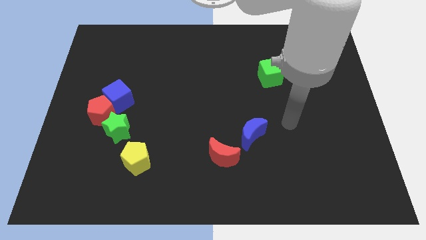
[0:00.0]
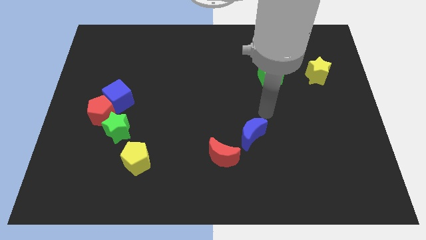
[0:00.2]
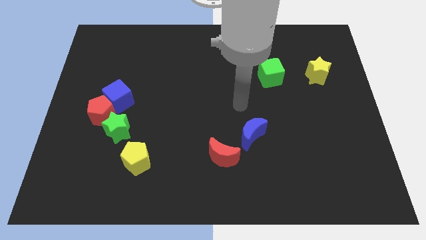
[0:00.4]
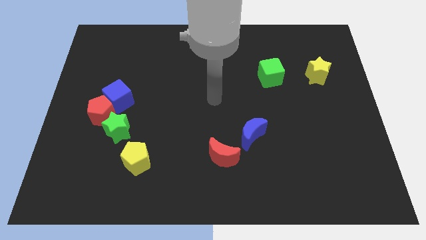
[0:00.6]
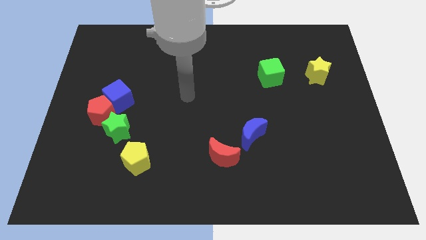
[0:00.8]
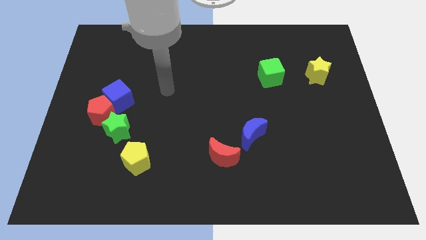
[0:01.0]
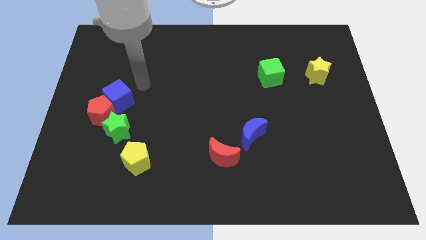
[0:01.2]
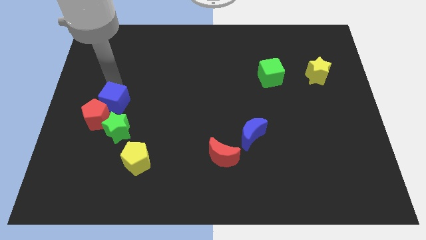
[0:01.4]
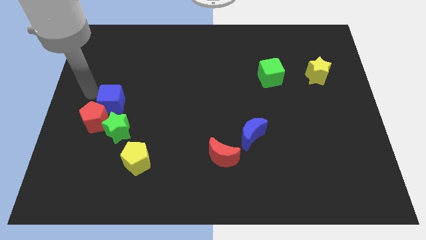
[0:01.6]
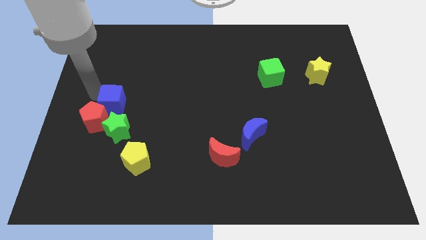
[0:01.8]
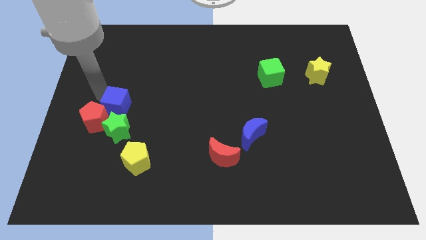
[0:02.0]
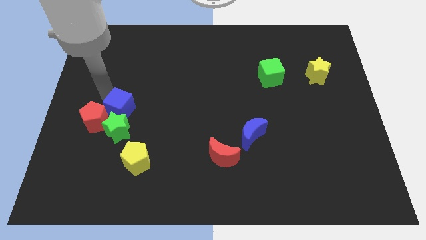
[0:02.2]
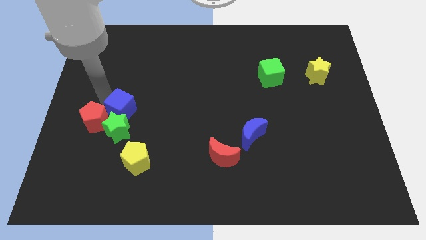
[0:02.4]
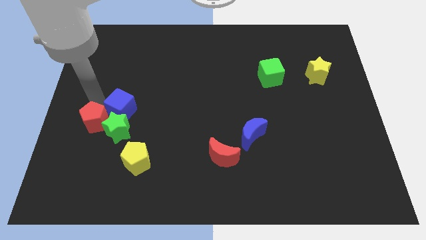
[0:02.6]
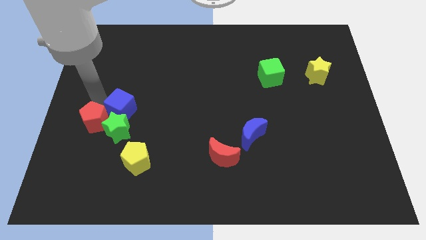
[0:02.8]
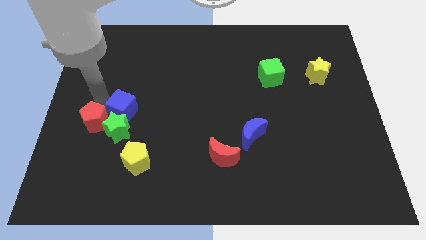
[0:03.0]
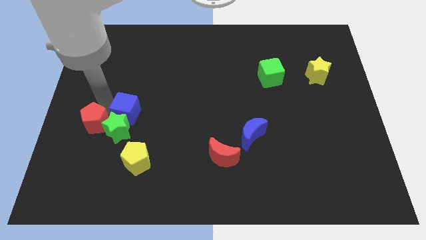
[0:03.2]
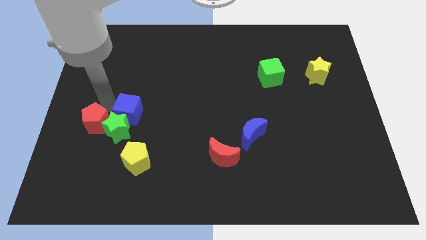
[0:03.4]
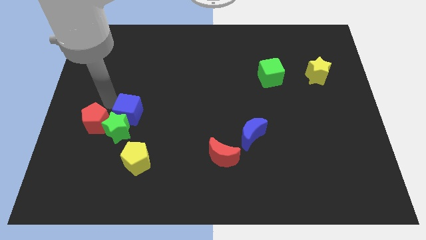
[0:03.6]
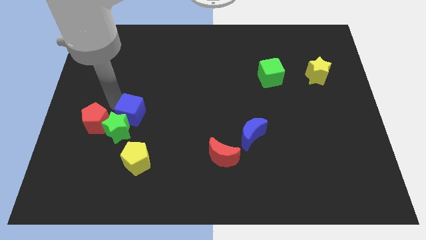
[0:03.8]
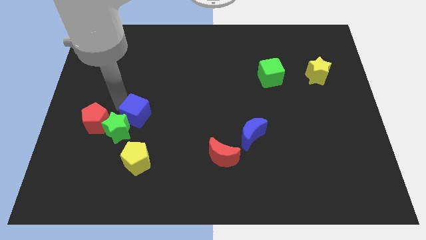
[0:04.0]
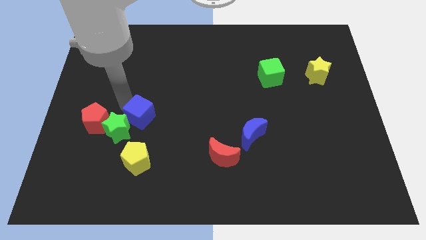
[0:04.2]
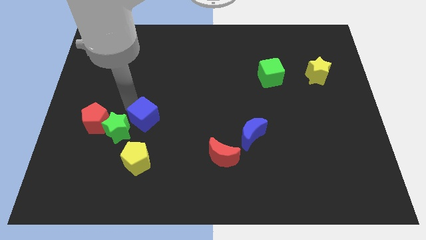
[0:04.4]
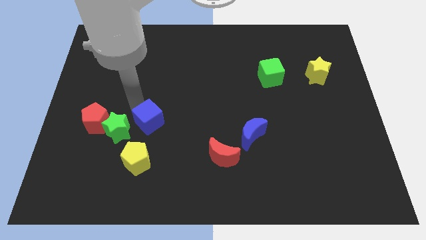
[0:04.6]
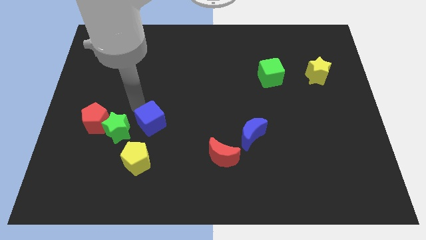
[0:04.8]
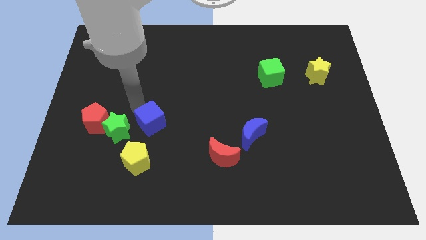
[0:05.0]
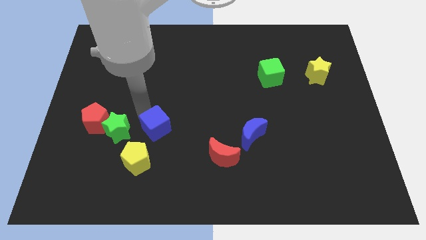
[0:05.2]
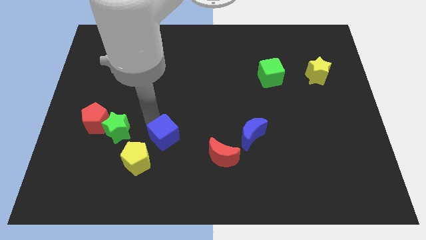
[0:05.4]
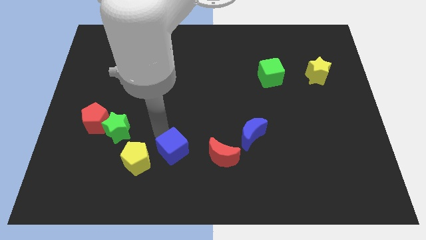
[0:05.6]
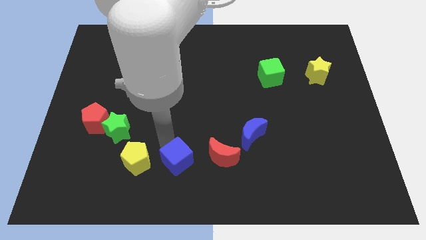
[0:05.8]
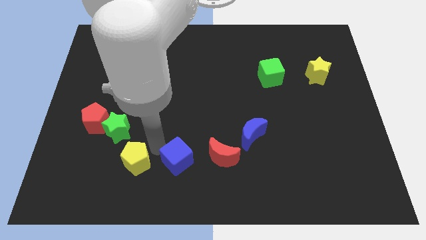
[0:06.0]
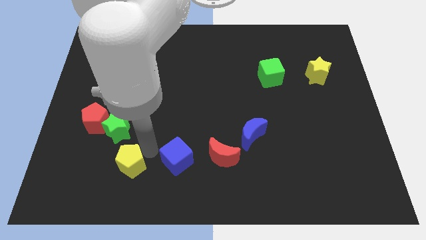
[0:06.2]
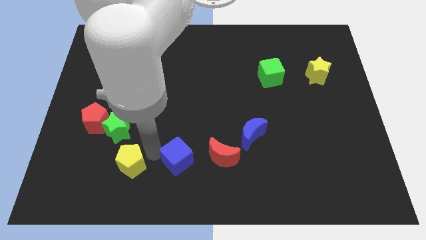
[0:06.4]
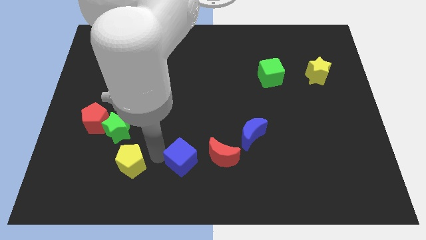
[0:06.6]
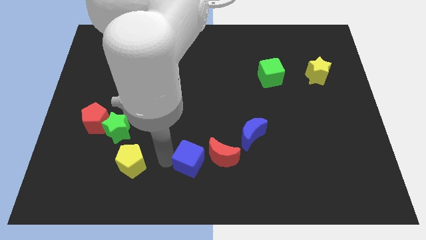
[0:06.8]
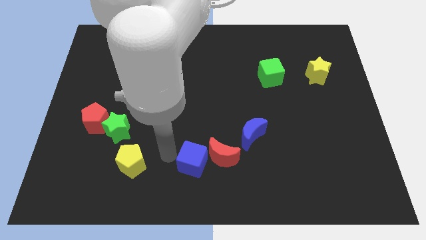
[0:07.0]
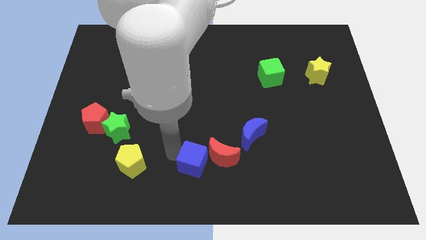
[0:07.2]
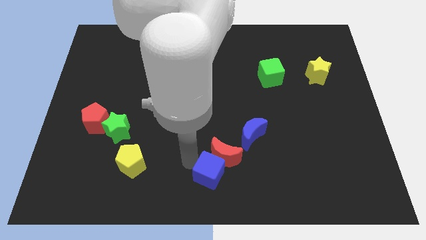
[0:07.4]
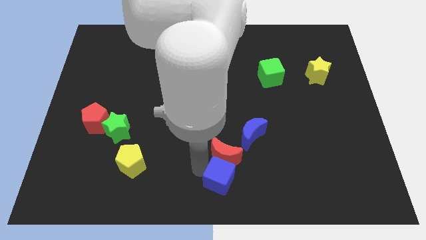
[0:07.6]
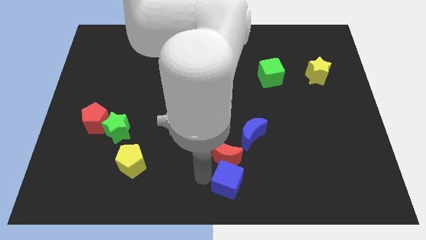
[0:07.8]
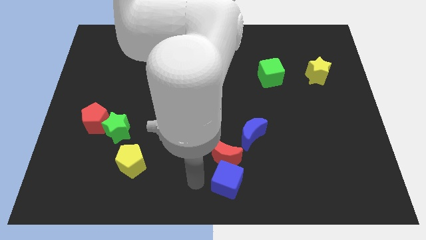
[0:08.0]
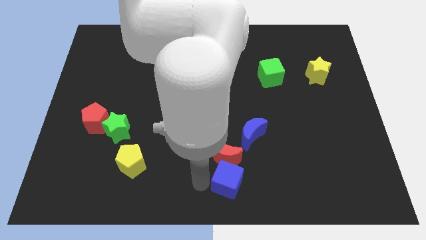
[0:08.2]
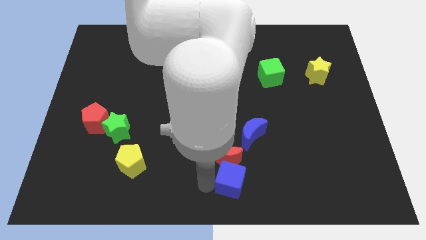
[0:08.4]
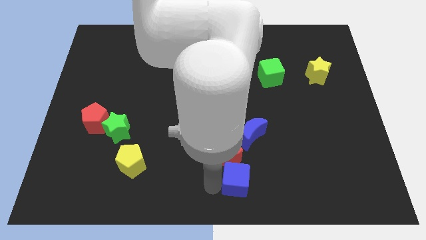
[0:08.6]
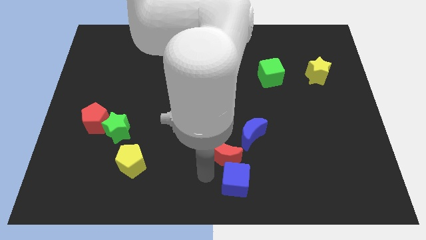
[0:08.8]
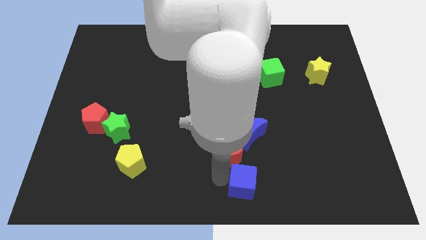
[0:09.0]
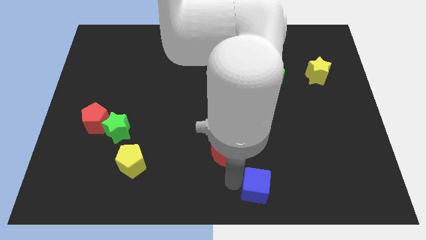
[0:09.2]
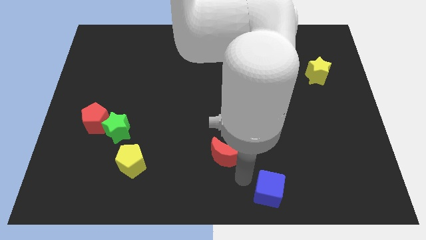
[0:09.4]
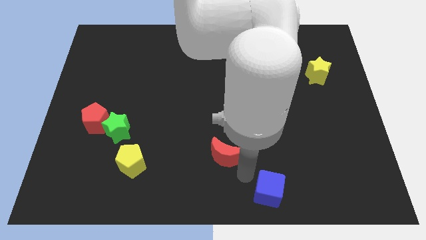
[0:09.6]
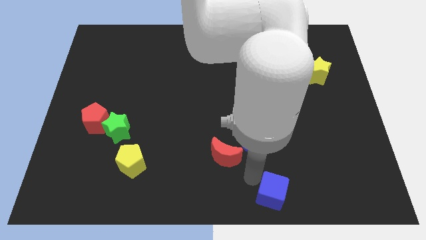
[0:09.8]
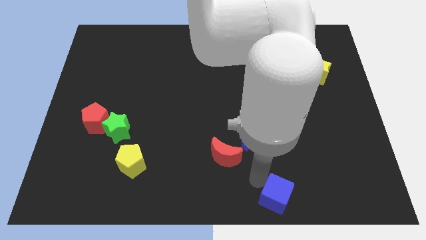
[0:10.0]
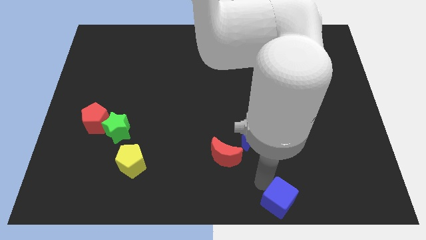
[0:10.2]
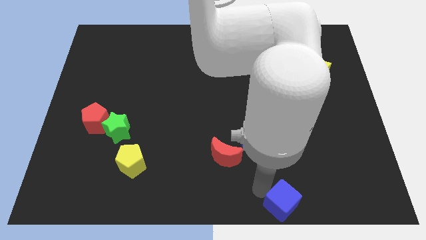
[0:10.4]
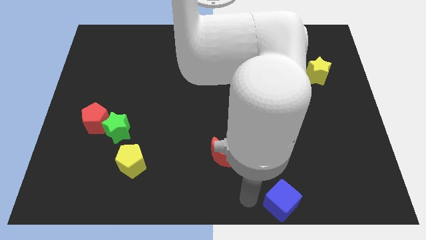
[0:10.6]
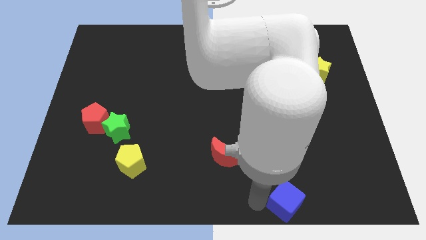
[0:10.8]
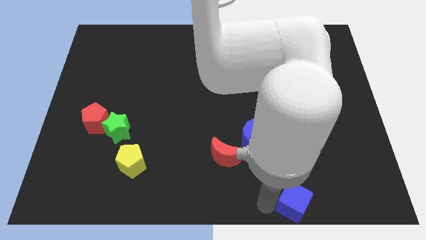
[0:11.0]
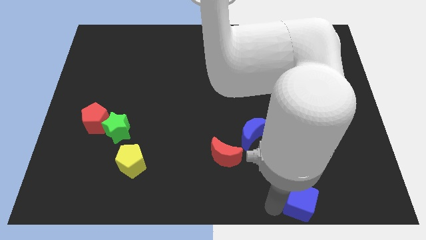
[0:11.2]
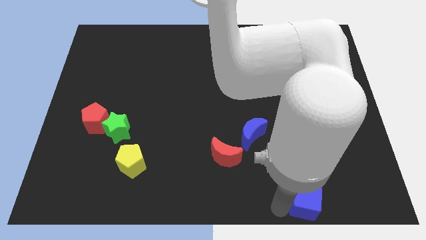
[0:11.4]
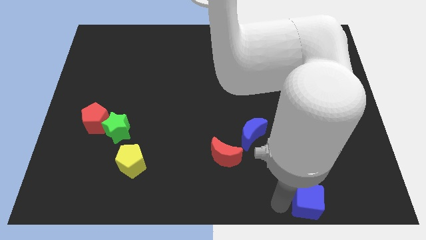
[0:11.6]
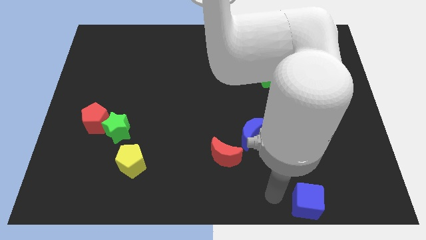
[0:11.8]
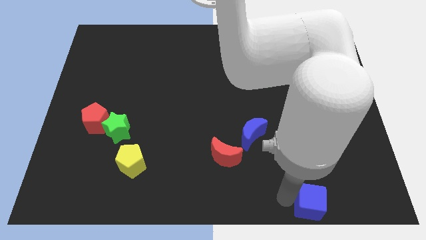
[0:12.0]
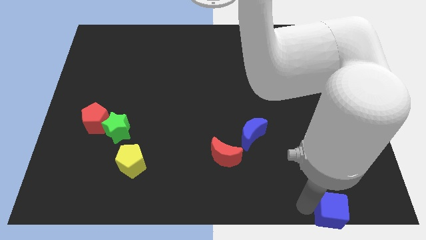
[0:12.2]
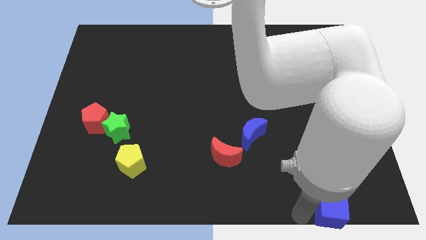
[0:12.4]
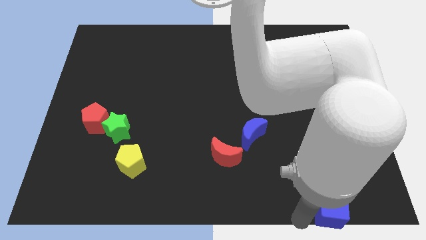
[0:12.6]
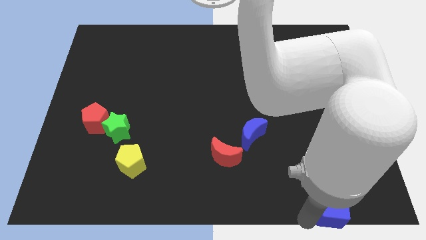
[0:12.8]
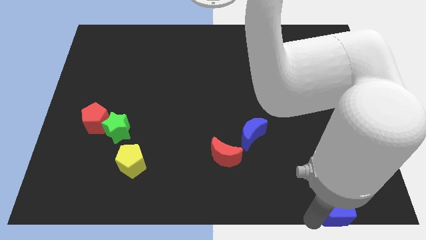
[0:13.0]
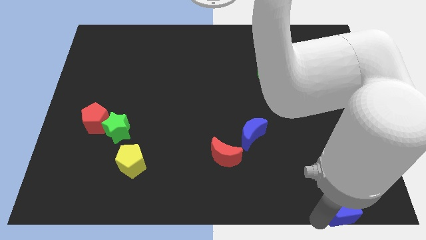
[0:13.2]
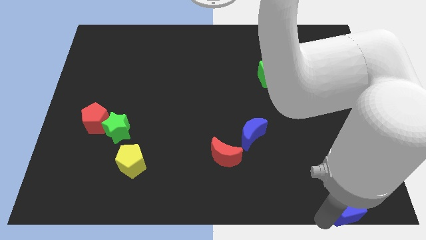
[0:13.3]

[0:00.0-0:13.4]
push the blue cube to the bottom right corner
